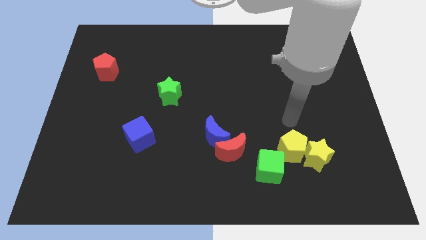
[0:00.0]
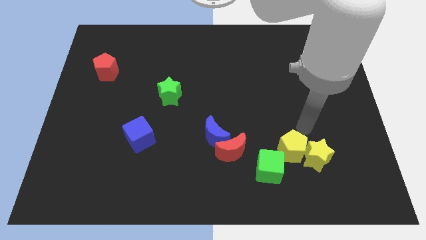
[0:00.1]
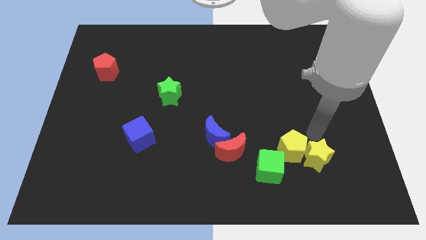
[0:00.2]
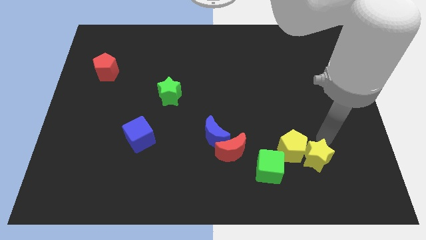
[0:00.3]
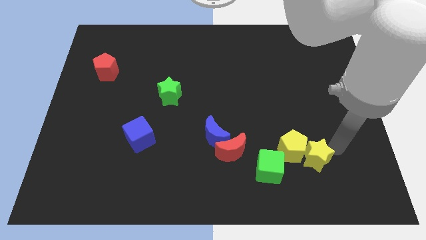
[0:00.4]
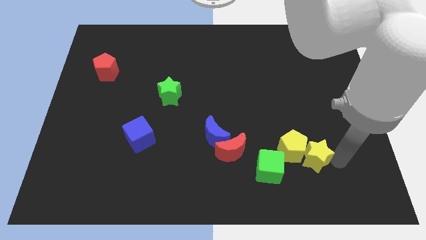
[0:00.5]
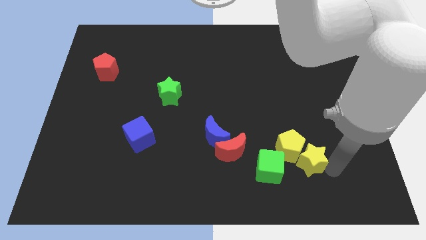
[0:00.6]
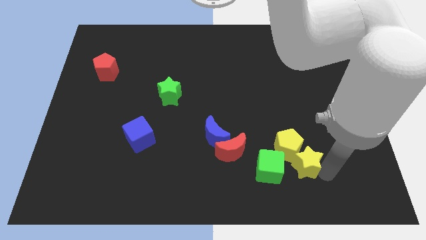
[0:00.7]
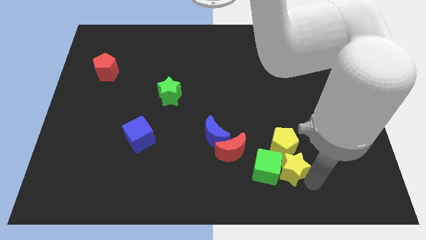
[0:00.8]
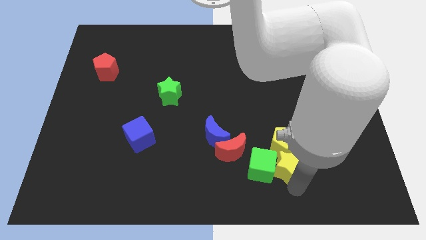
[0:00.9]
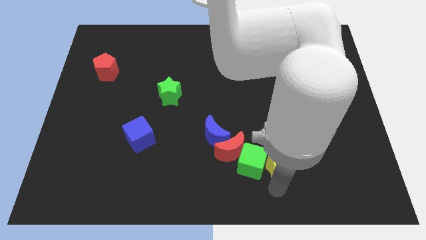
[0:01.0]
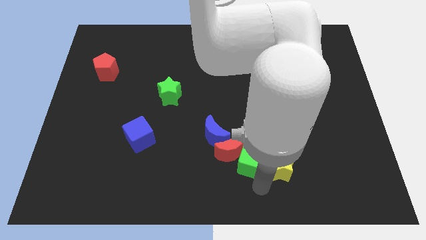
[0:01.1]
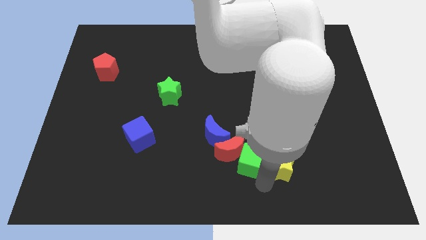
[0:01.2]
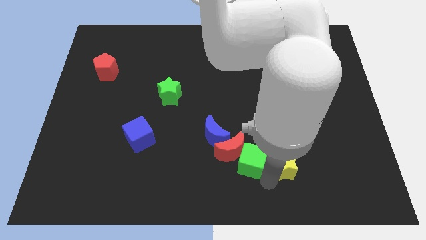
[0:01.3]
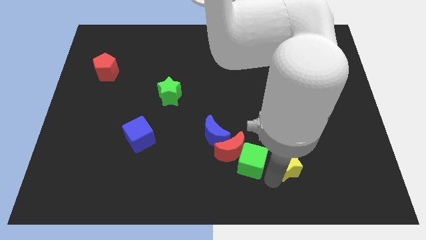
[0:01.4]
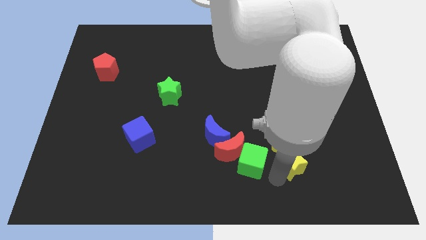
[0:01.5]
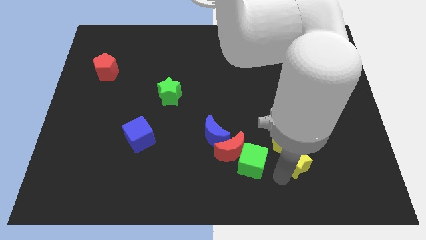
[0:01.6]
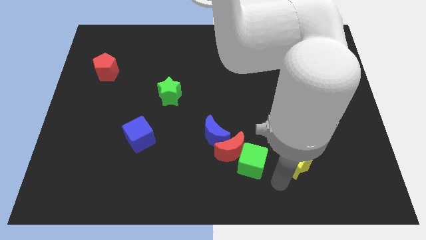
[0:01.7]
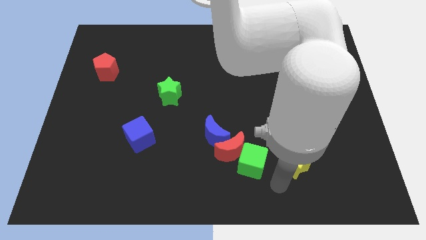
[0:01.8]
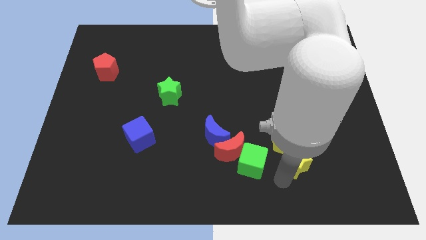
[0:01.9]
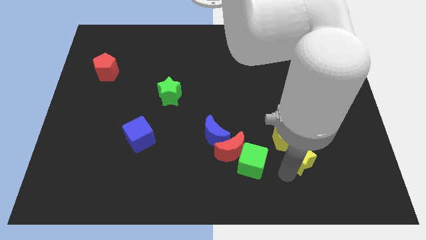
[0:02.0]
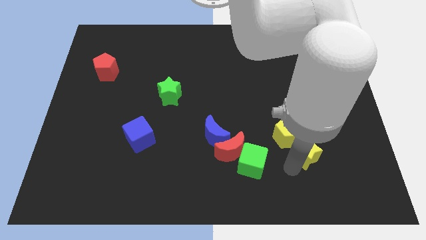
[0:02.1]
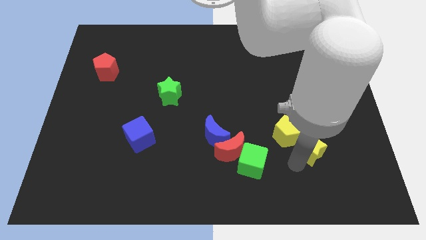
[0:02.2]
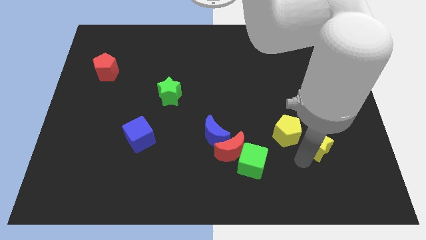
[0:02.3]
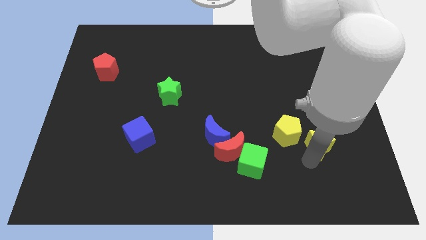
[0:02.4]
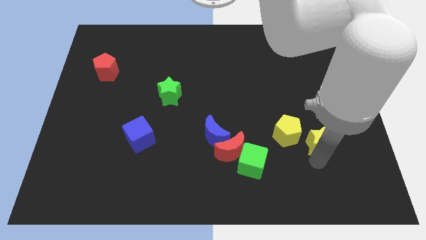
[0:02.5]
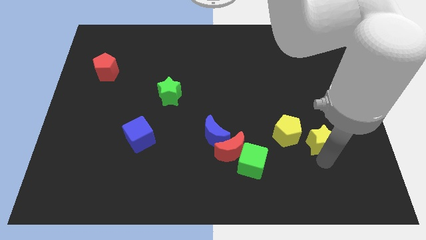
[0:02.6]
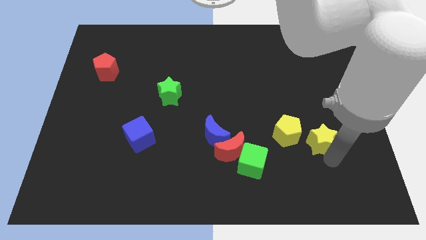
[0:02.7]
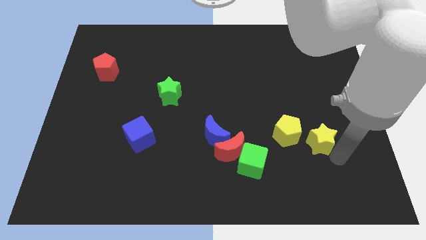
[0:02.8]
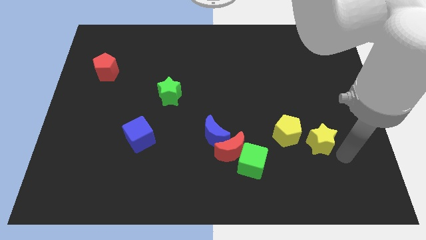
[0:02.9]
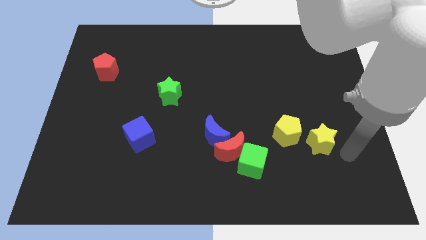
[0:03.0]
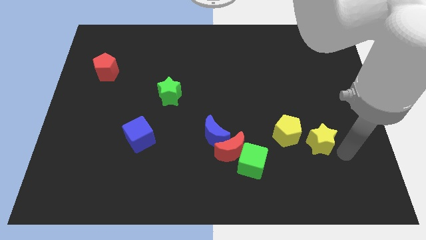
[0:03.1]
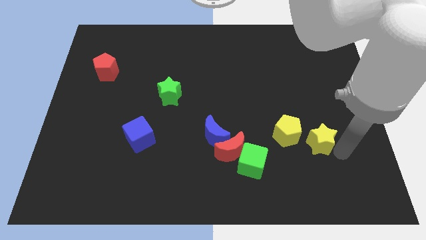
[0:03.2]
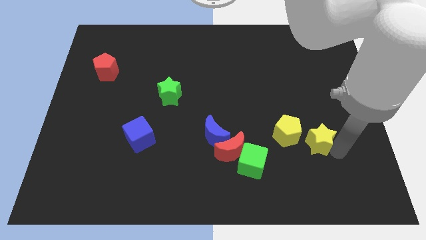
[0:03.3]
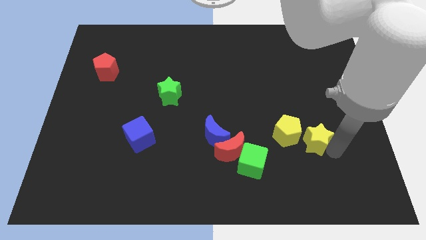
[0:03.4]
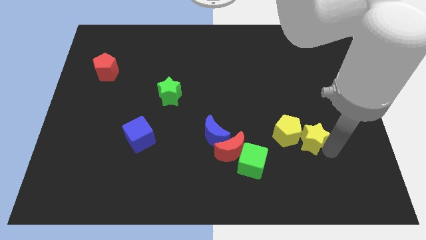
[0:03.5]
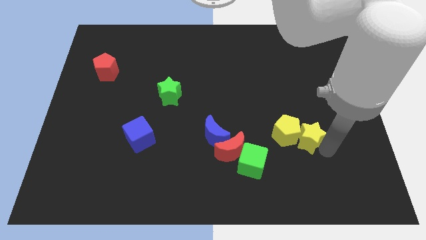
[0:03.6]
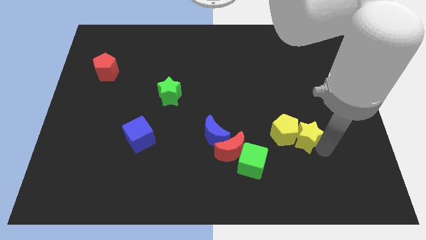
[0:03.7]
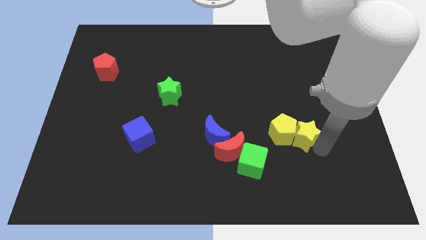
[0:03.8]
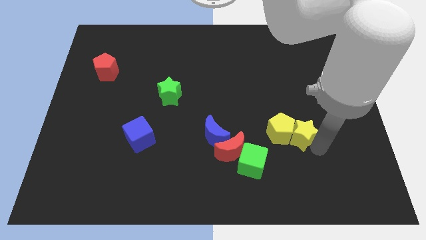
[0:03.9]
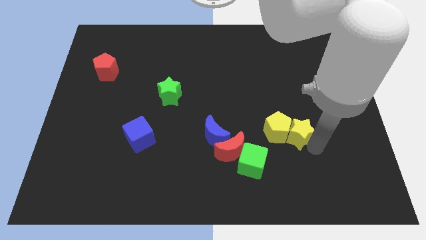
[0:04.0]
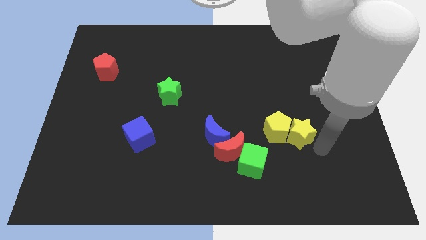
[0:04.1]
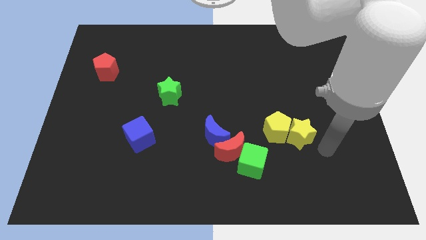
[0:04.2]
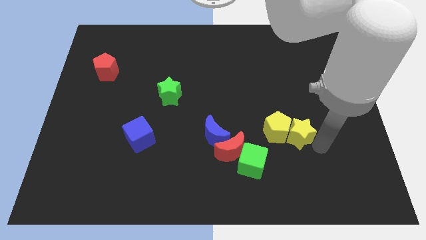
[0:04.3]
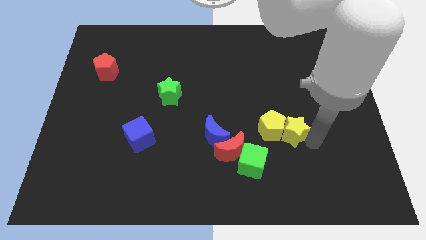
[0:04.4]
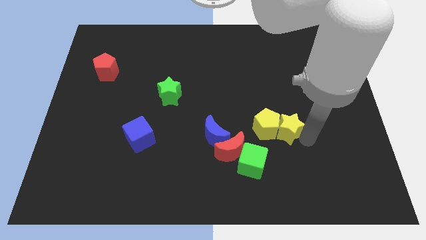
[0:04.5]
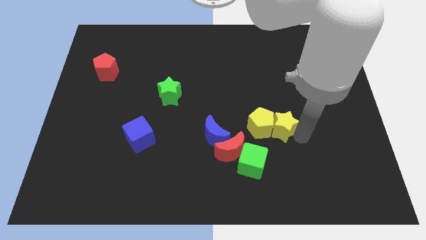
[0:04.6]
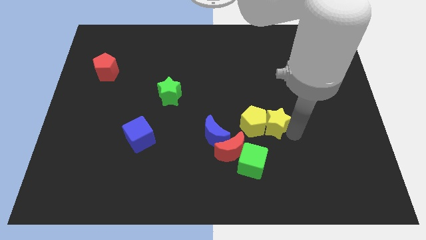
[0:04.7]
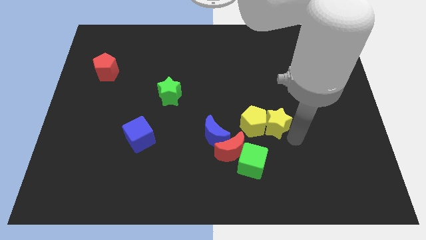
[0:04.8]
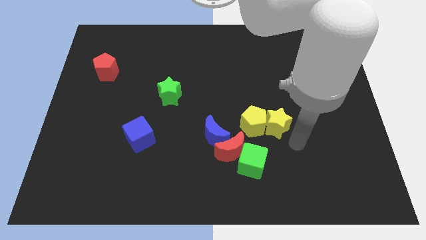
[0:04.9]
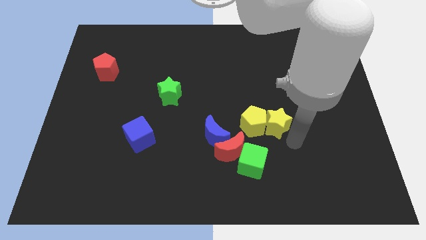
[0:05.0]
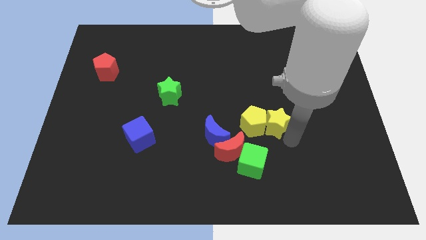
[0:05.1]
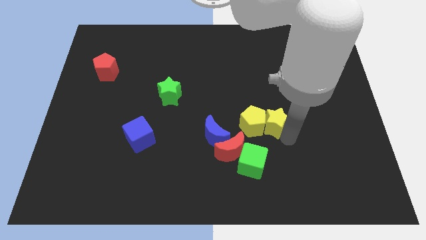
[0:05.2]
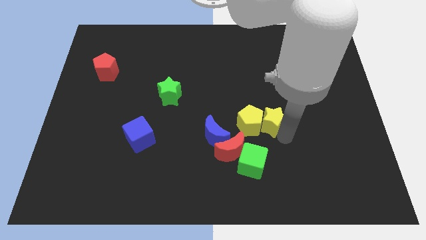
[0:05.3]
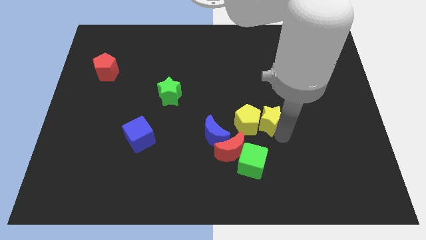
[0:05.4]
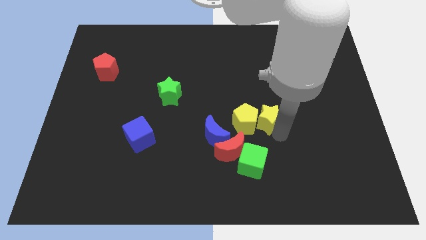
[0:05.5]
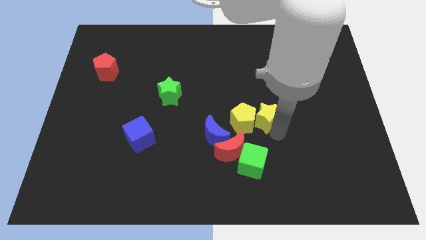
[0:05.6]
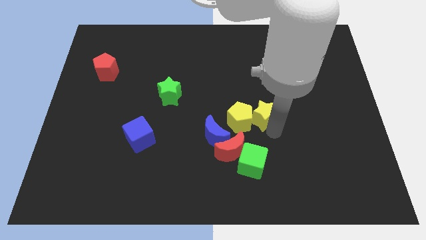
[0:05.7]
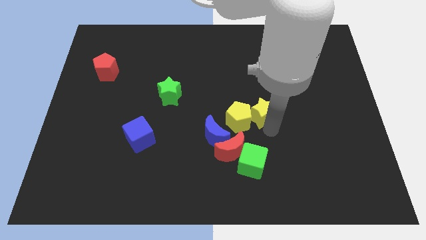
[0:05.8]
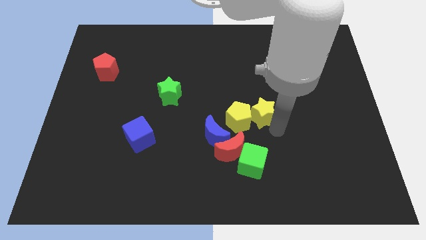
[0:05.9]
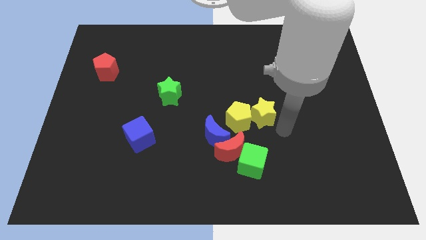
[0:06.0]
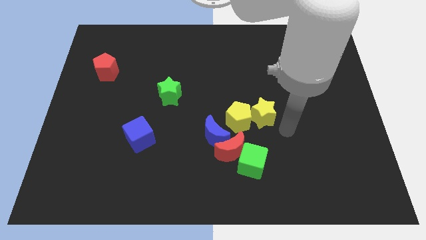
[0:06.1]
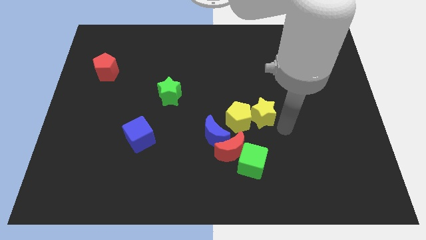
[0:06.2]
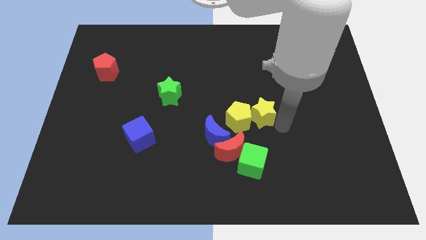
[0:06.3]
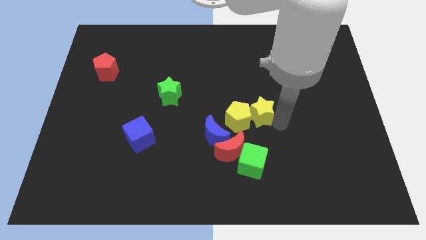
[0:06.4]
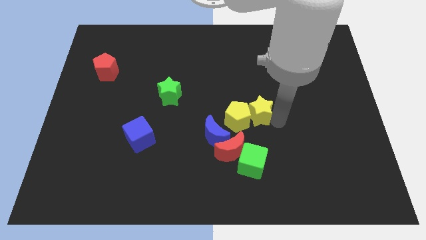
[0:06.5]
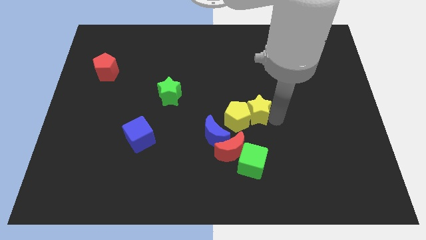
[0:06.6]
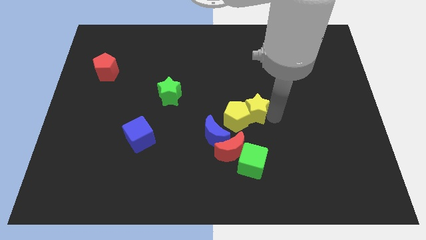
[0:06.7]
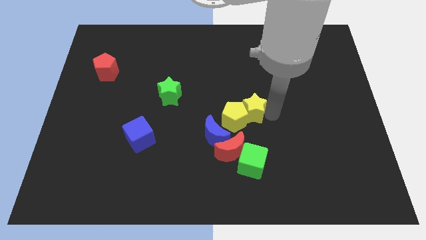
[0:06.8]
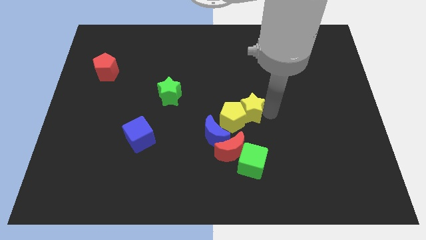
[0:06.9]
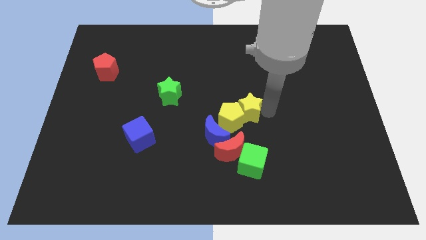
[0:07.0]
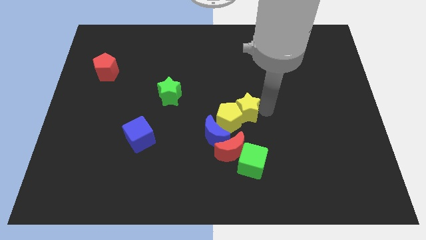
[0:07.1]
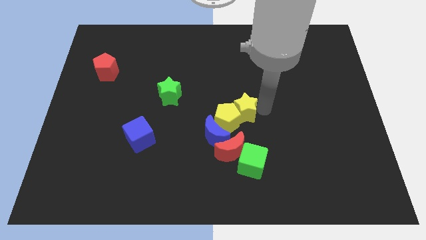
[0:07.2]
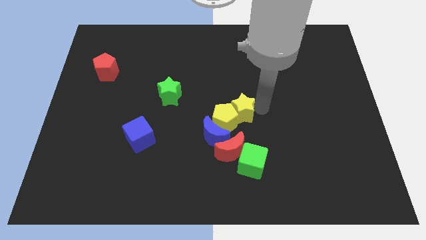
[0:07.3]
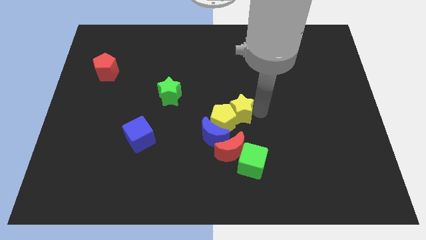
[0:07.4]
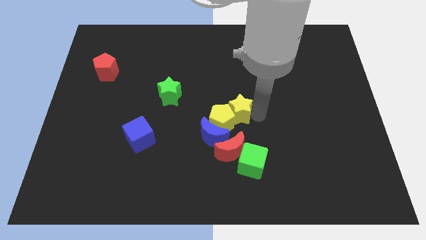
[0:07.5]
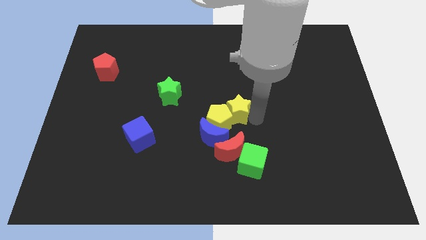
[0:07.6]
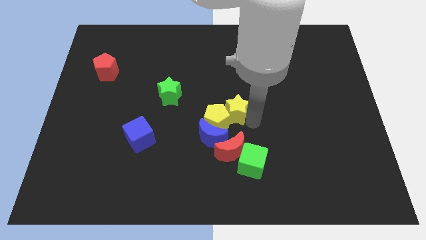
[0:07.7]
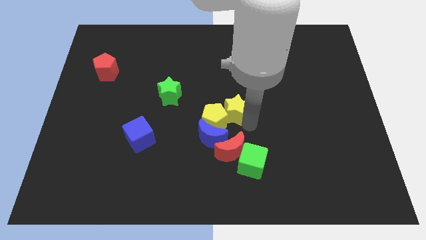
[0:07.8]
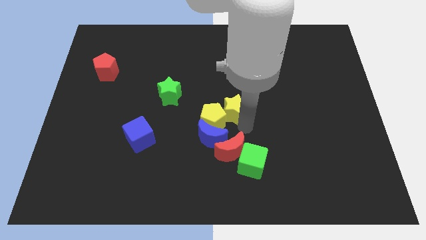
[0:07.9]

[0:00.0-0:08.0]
push the yellow star upwards and then to the left
